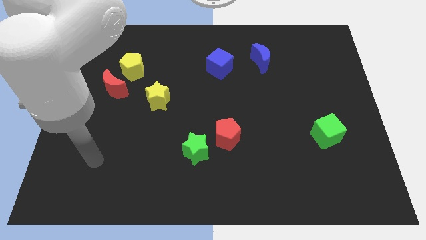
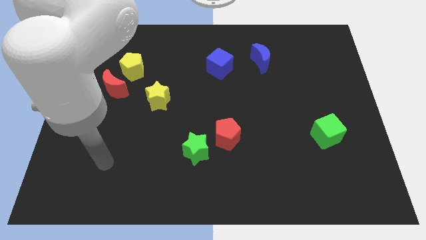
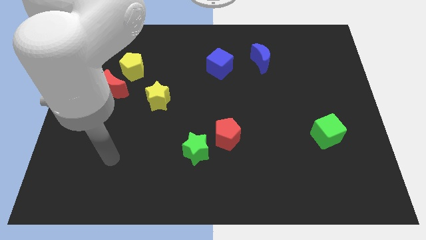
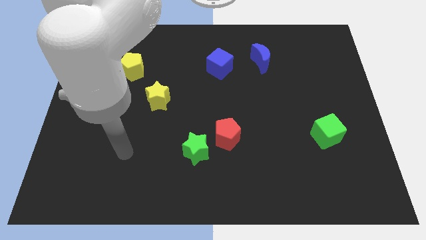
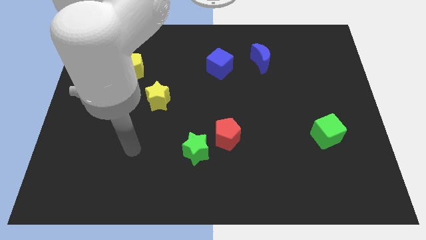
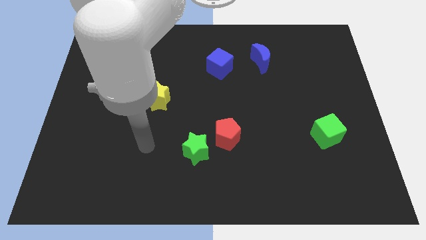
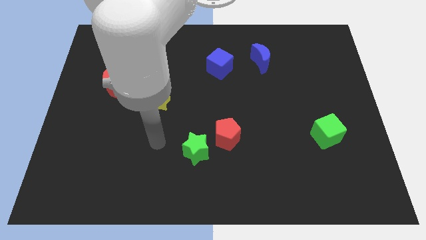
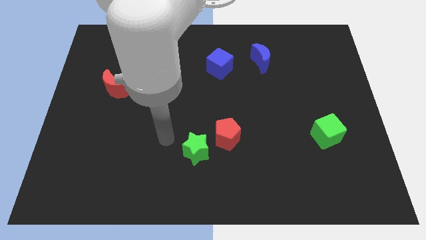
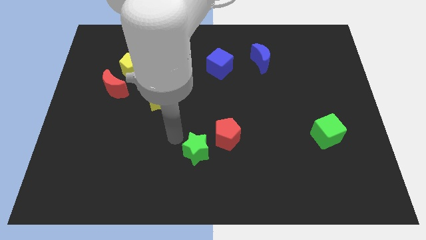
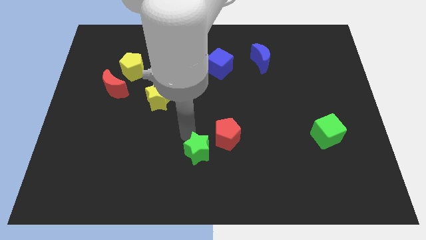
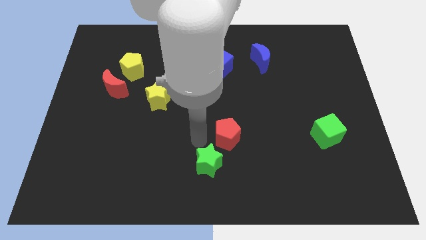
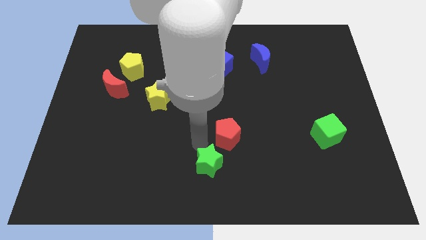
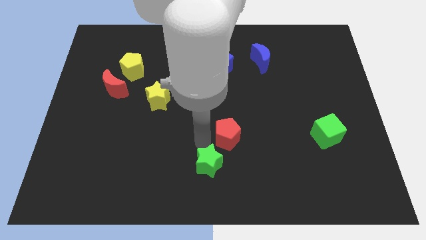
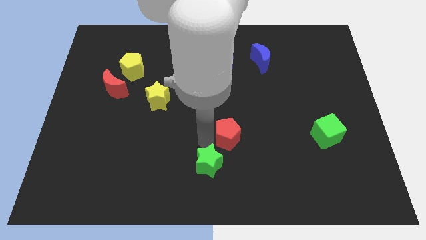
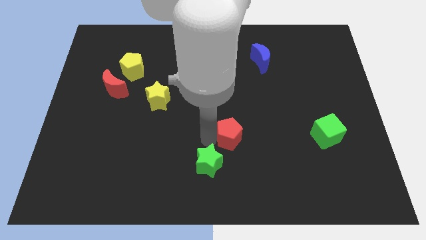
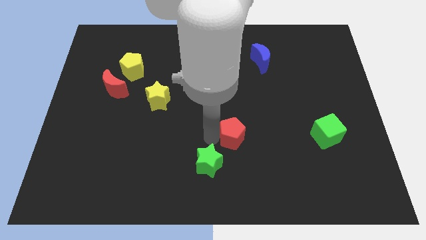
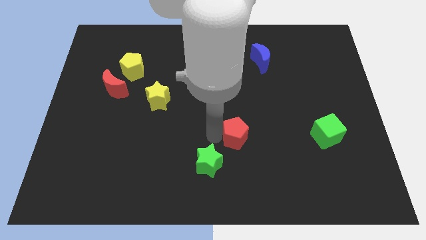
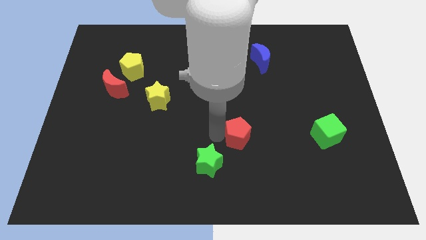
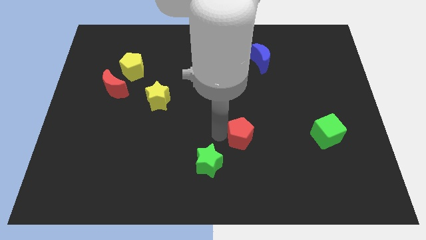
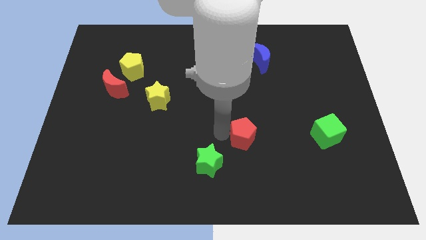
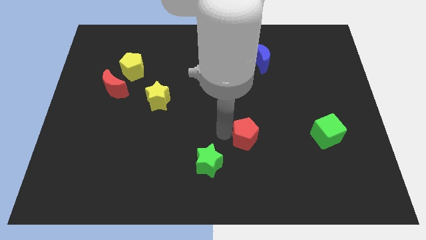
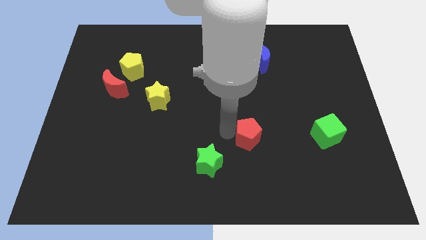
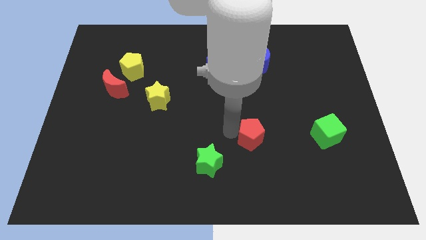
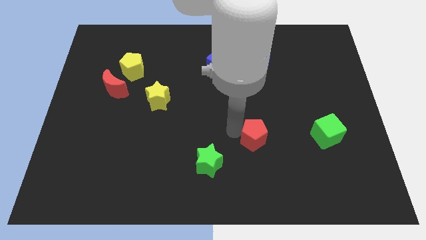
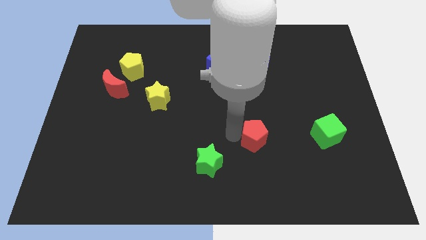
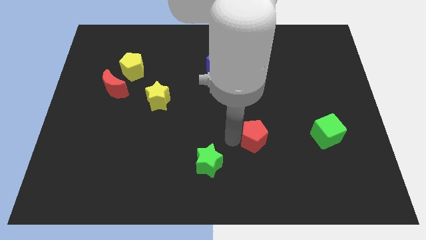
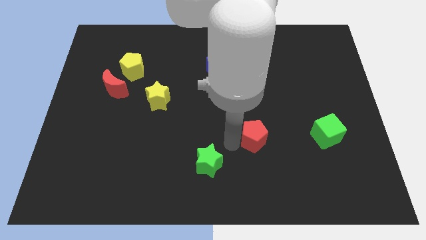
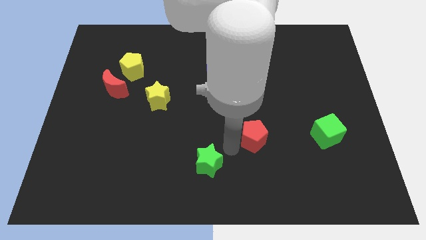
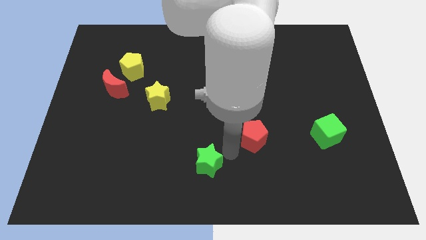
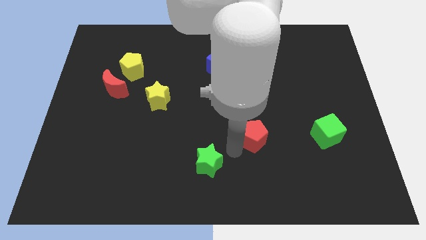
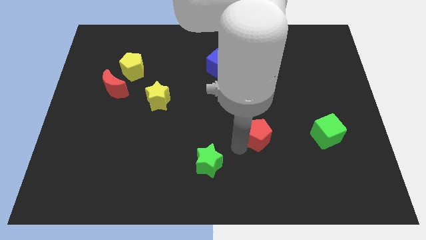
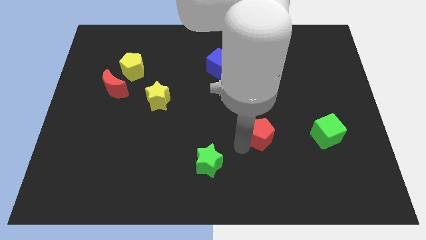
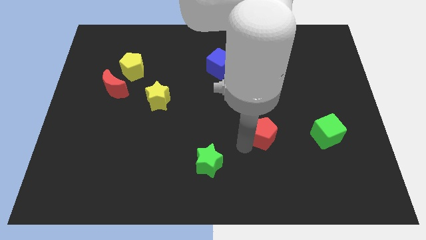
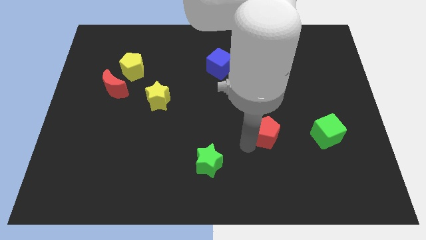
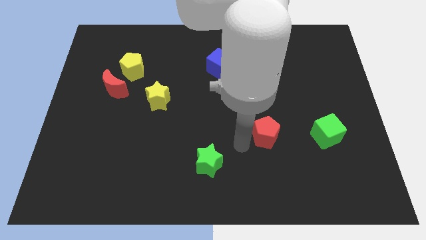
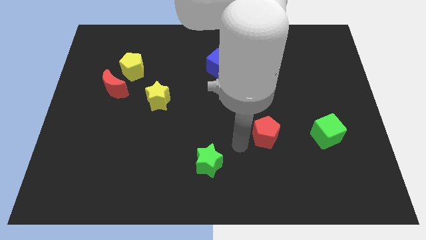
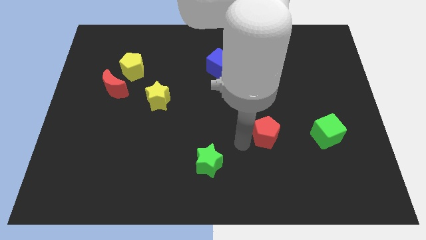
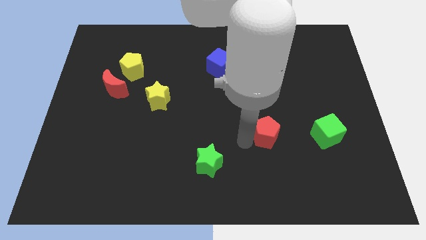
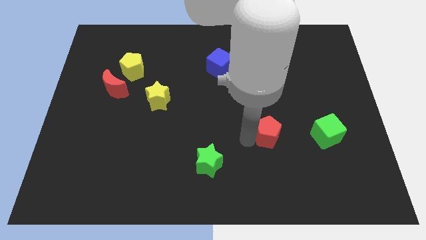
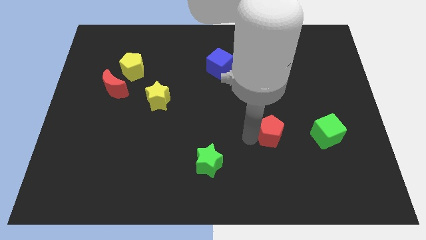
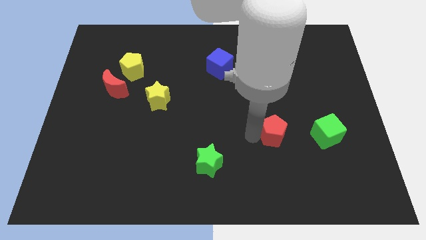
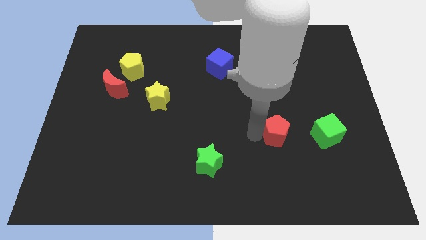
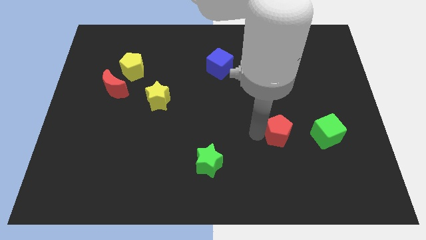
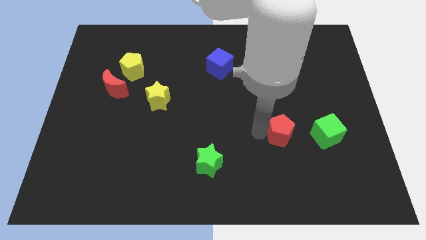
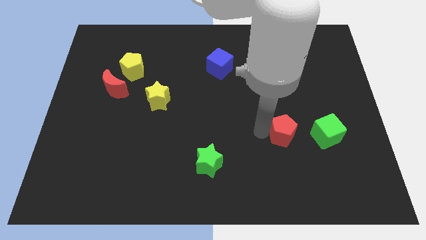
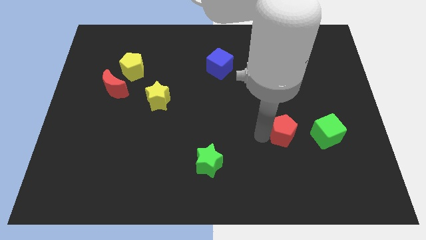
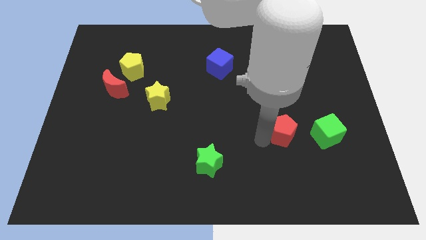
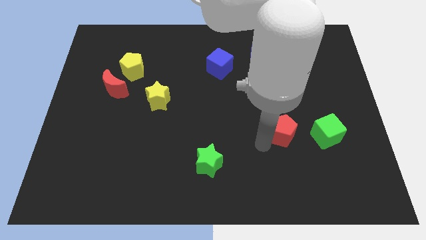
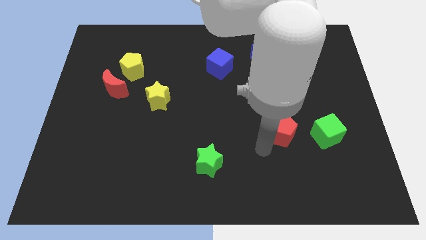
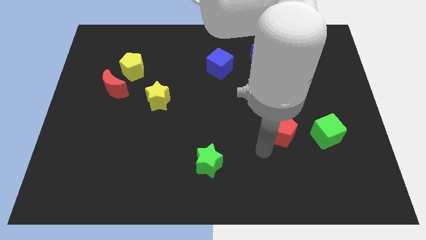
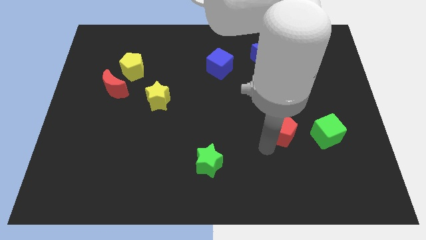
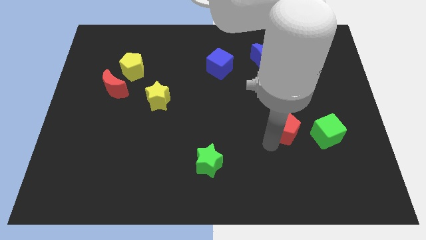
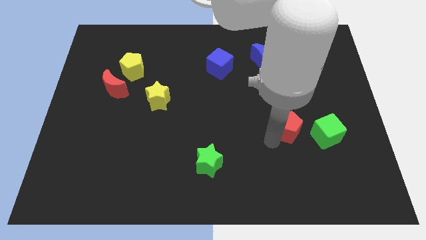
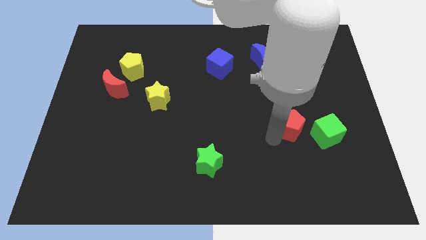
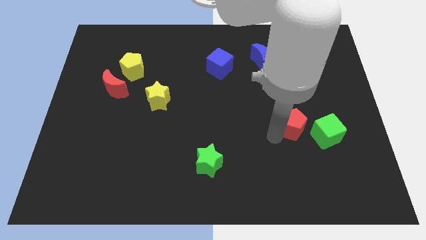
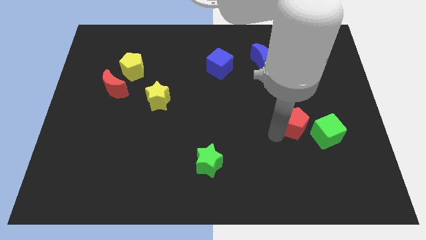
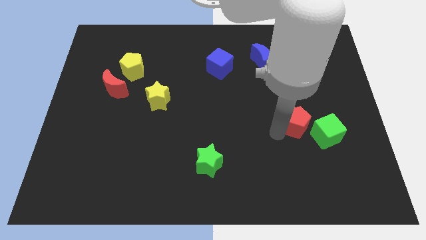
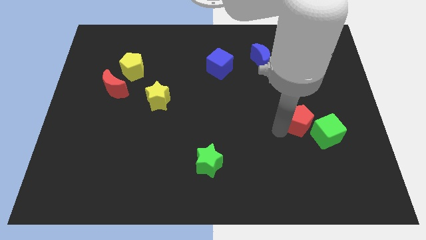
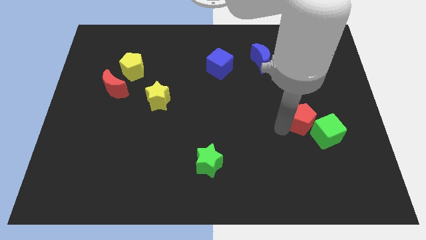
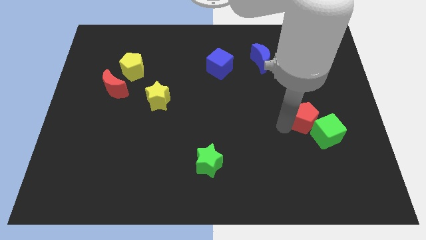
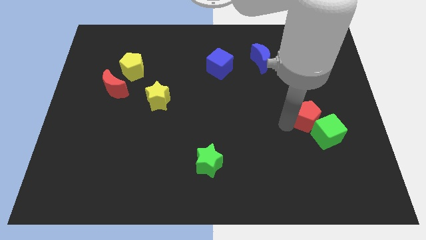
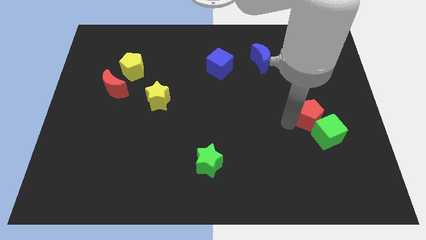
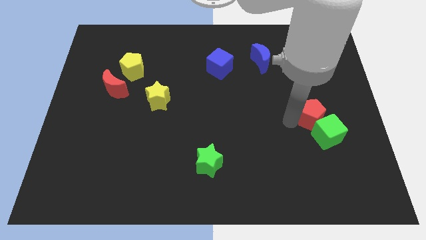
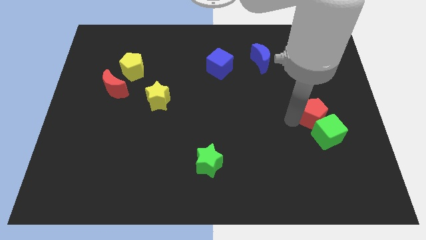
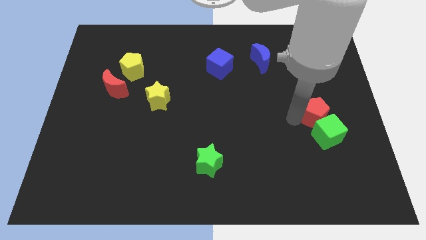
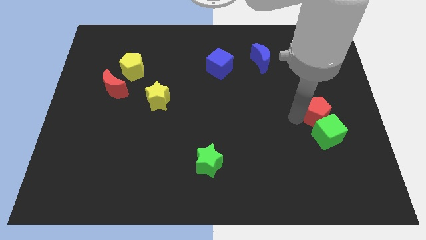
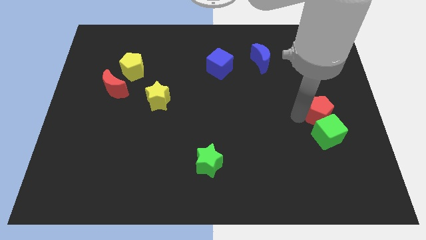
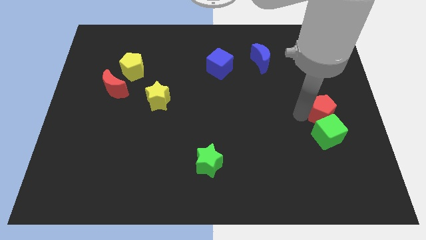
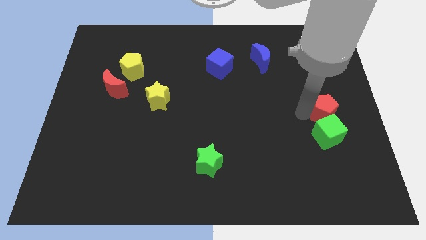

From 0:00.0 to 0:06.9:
move the red pentagon to the center right
